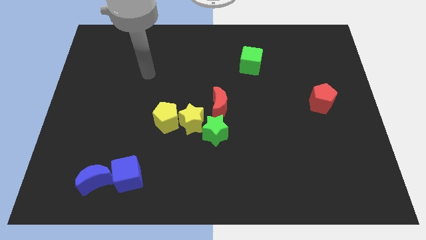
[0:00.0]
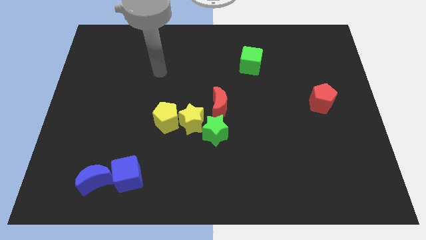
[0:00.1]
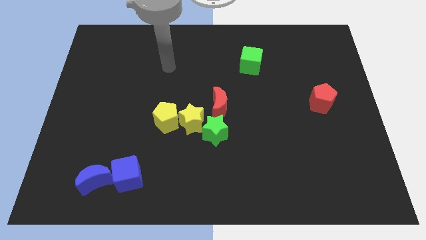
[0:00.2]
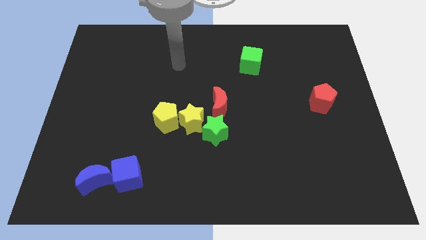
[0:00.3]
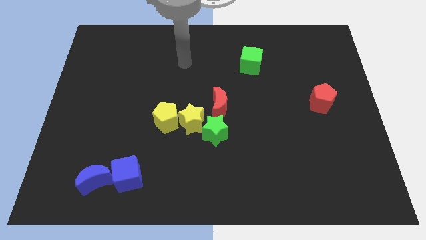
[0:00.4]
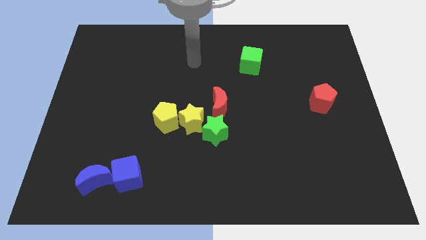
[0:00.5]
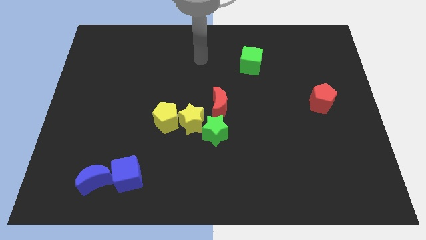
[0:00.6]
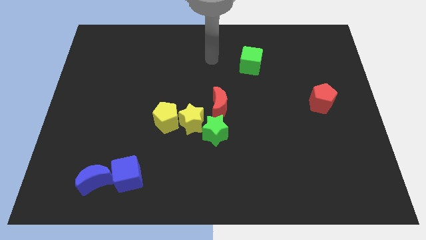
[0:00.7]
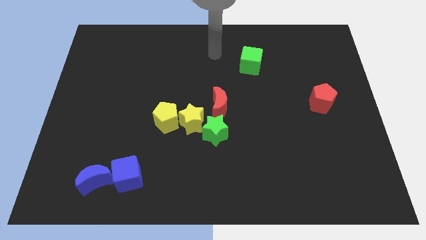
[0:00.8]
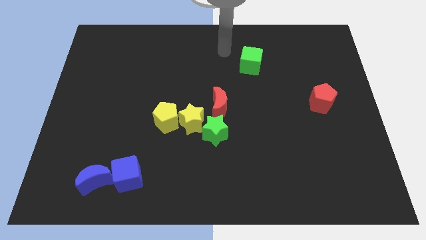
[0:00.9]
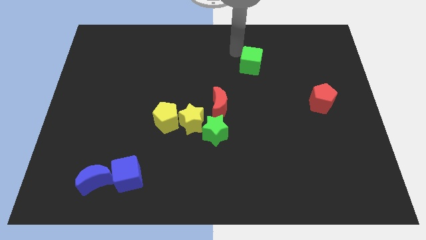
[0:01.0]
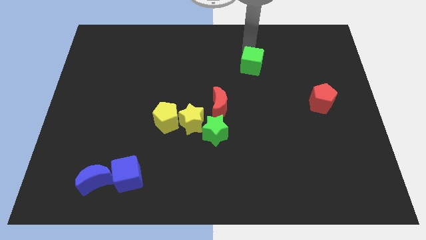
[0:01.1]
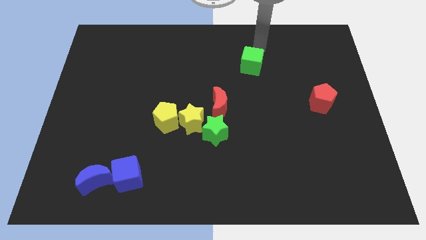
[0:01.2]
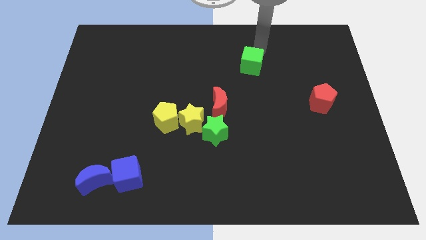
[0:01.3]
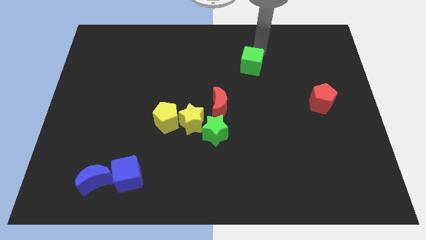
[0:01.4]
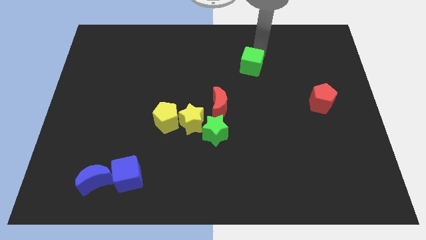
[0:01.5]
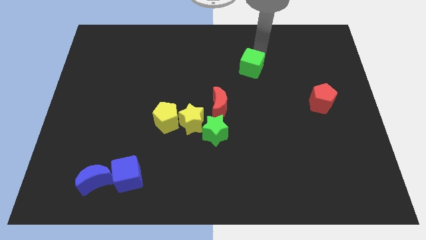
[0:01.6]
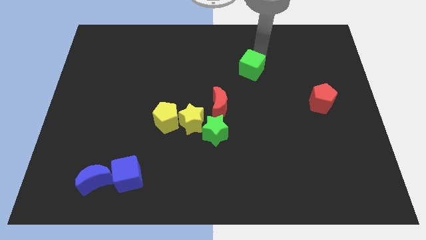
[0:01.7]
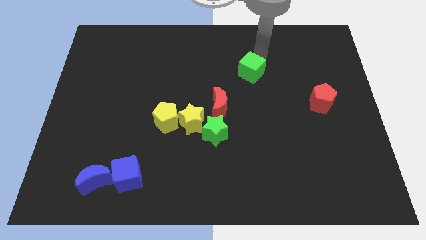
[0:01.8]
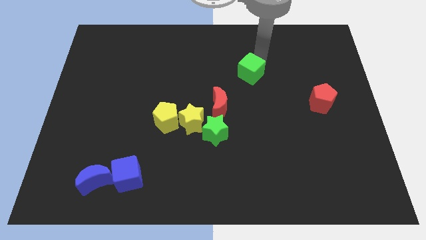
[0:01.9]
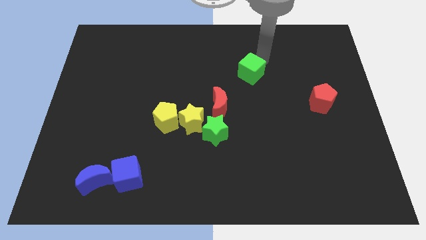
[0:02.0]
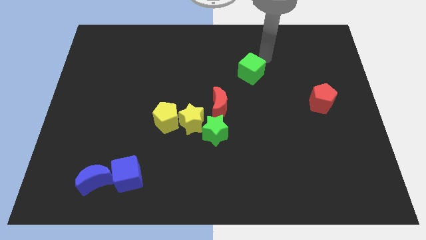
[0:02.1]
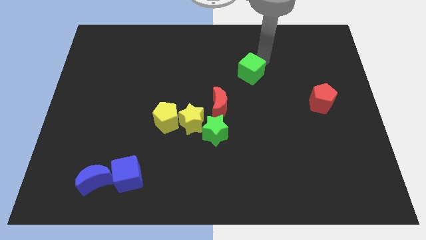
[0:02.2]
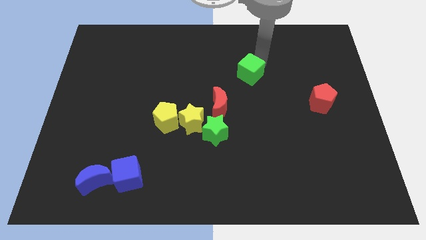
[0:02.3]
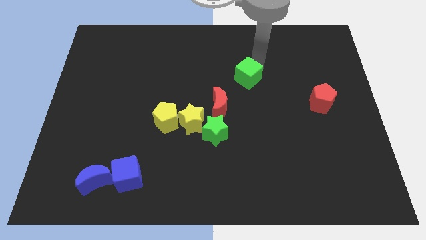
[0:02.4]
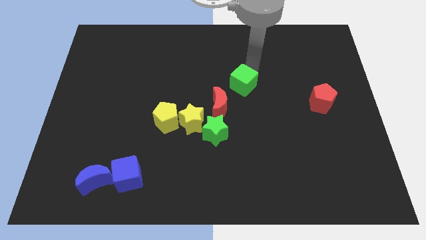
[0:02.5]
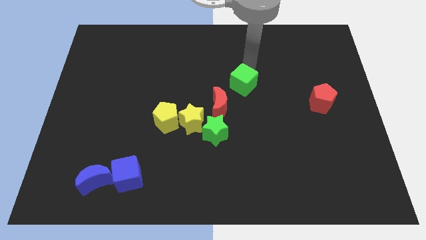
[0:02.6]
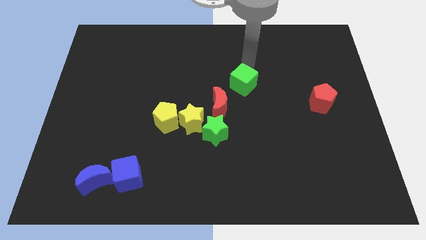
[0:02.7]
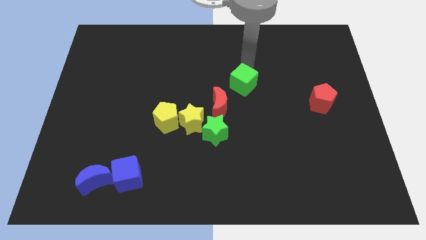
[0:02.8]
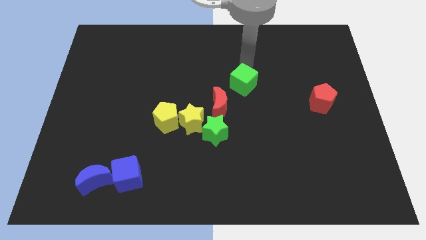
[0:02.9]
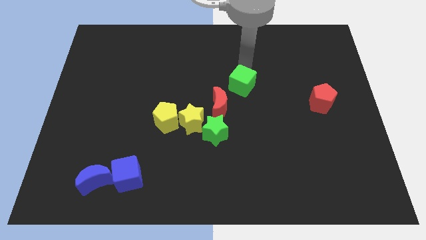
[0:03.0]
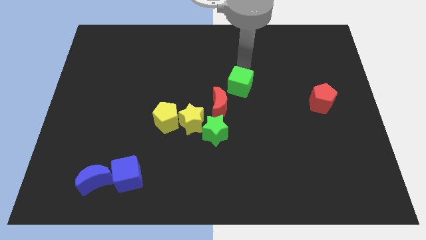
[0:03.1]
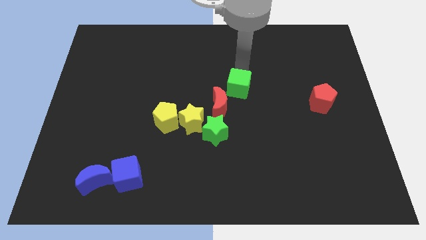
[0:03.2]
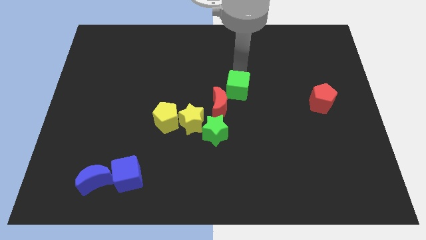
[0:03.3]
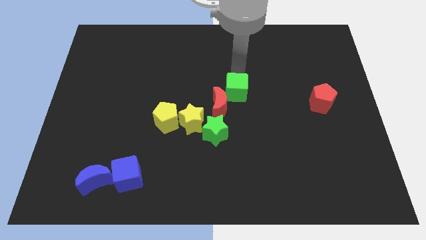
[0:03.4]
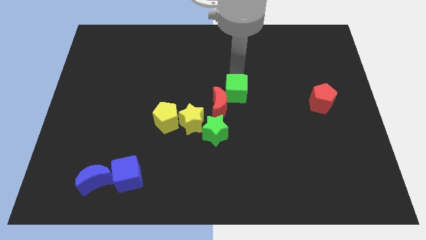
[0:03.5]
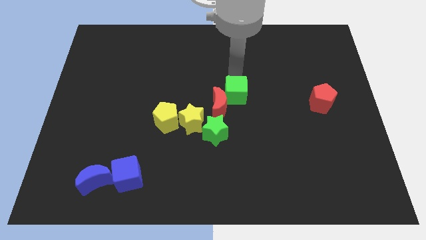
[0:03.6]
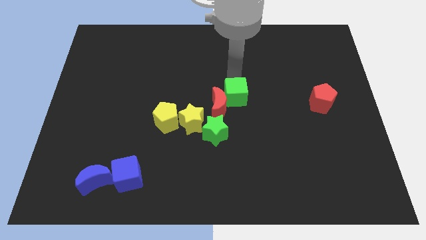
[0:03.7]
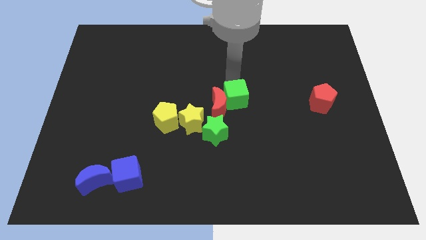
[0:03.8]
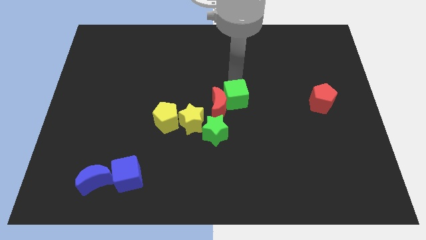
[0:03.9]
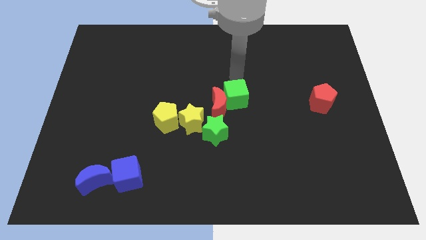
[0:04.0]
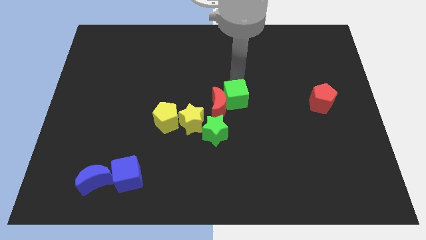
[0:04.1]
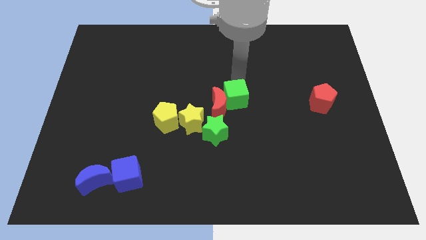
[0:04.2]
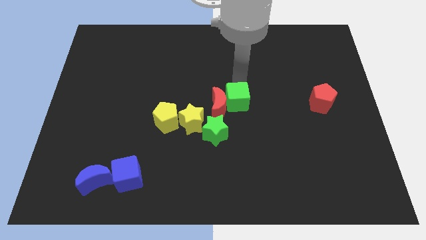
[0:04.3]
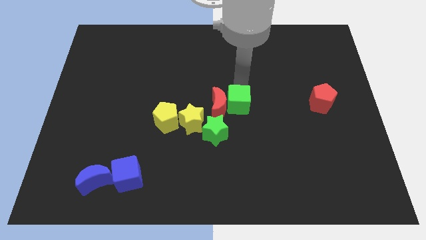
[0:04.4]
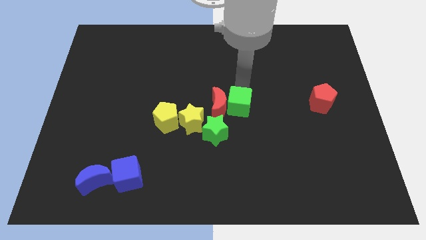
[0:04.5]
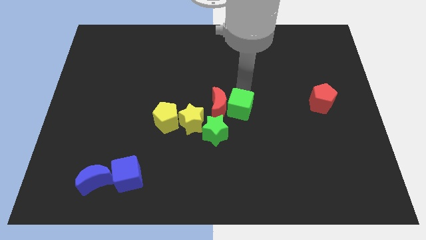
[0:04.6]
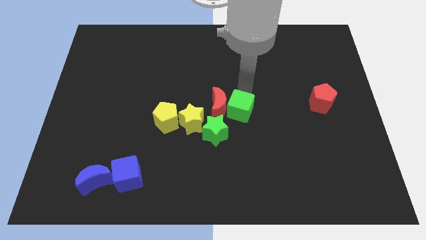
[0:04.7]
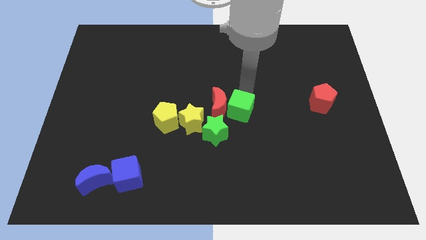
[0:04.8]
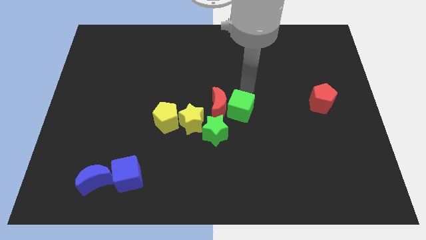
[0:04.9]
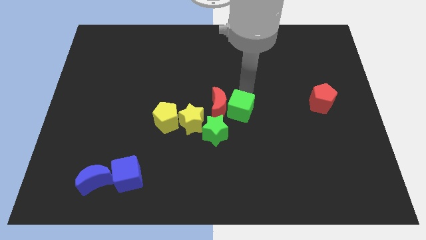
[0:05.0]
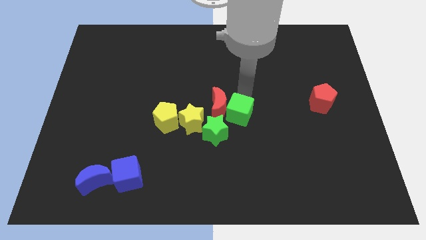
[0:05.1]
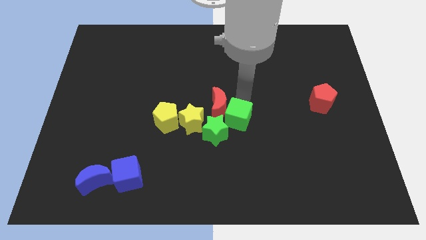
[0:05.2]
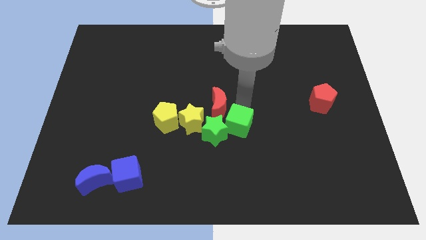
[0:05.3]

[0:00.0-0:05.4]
slide the green cube to the green star

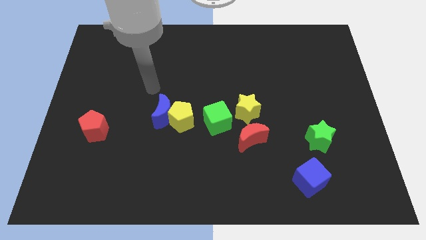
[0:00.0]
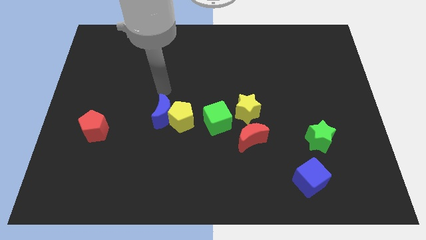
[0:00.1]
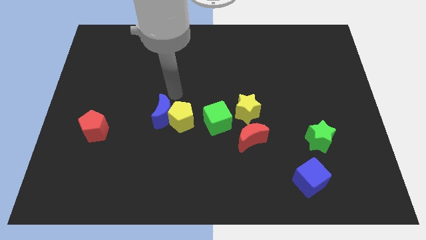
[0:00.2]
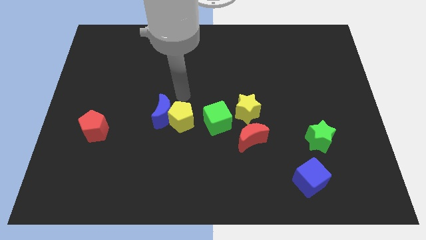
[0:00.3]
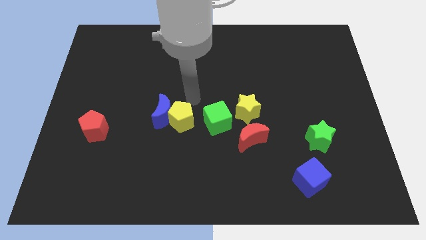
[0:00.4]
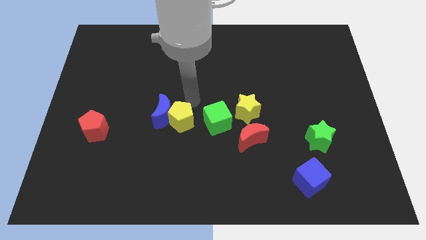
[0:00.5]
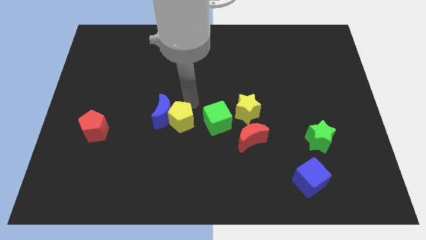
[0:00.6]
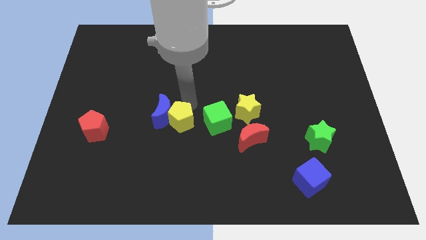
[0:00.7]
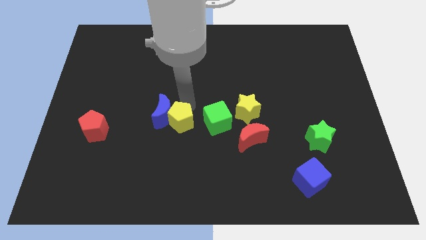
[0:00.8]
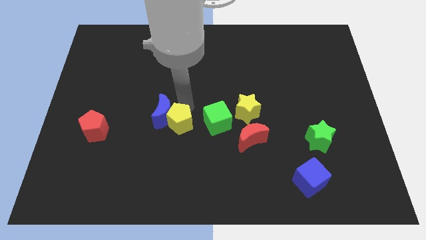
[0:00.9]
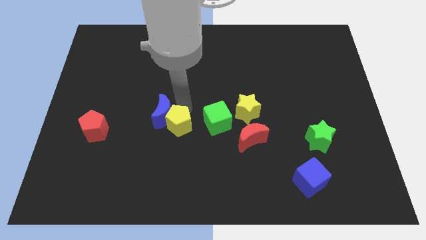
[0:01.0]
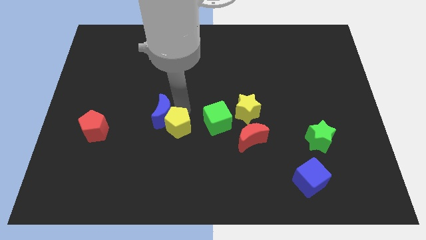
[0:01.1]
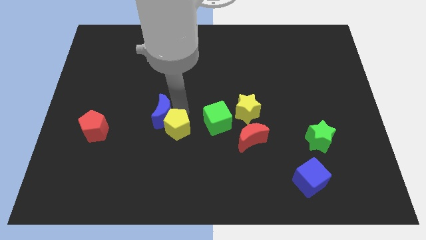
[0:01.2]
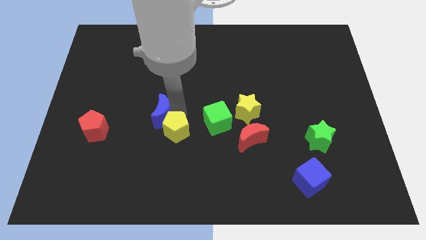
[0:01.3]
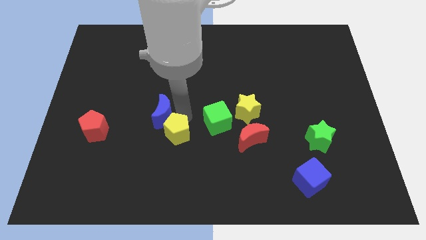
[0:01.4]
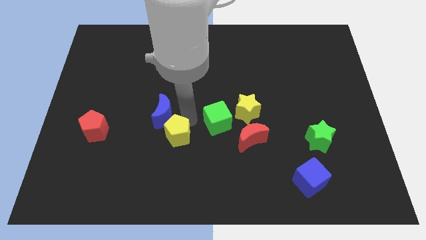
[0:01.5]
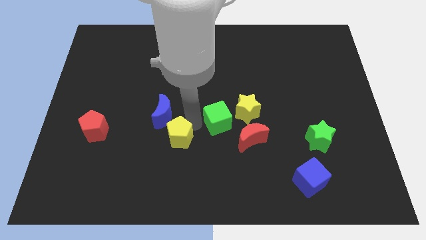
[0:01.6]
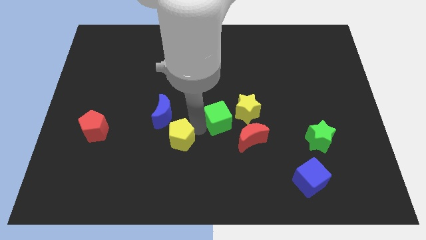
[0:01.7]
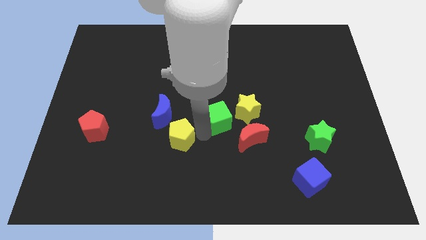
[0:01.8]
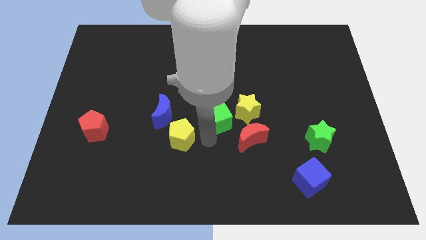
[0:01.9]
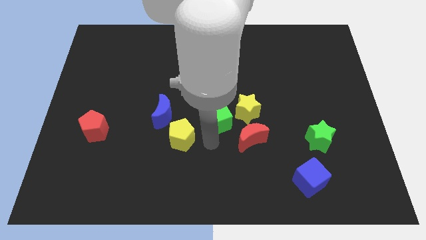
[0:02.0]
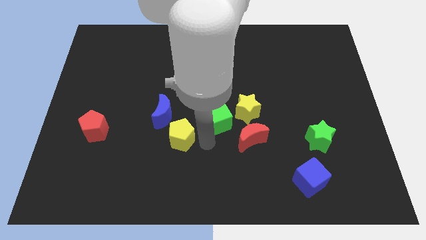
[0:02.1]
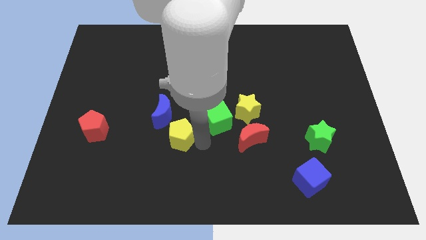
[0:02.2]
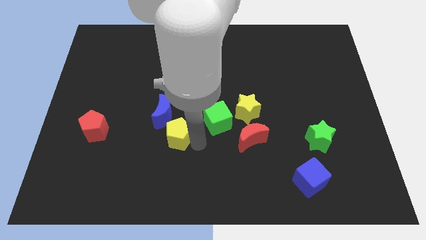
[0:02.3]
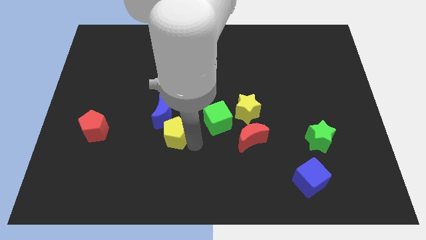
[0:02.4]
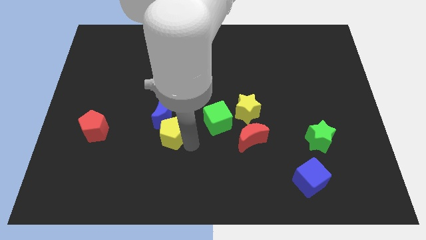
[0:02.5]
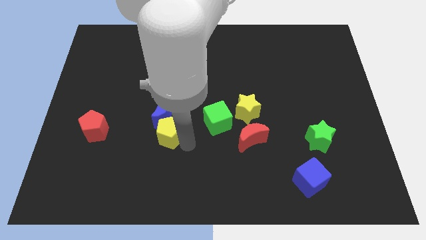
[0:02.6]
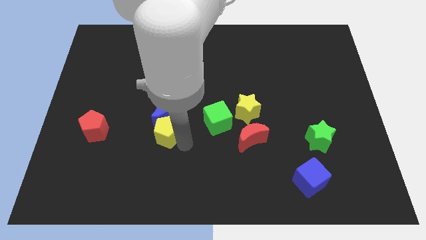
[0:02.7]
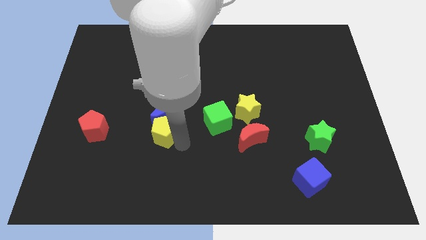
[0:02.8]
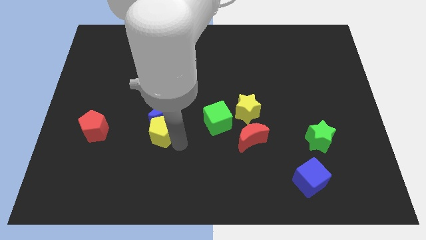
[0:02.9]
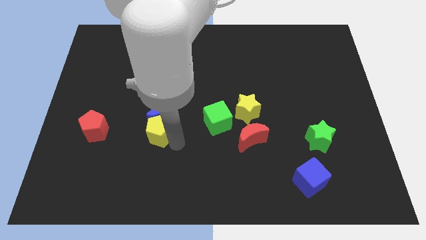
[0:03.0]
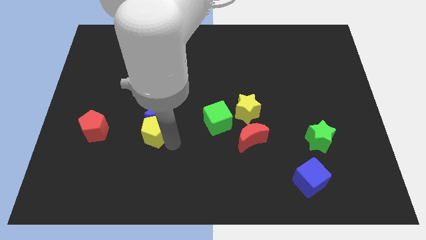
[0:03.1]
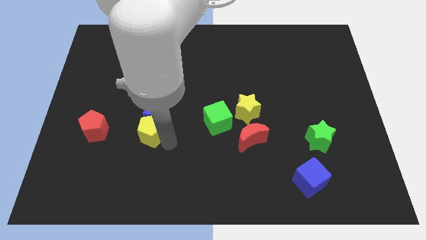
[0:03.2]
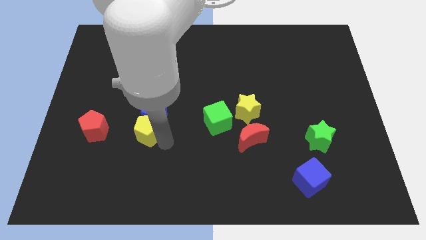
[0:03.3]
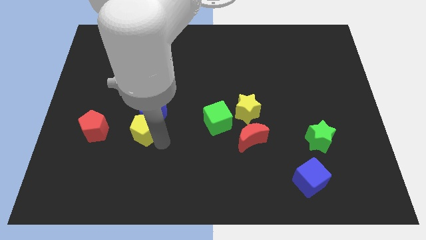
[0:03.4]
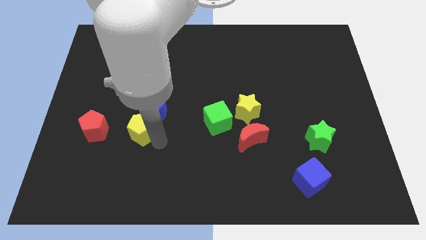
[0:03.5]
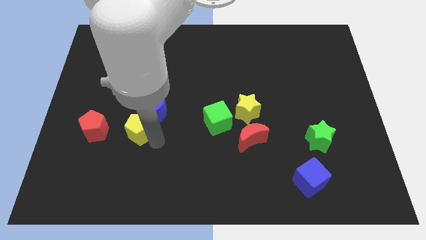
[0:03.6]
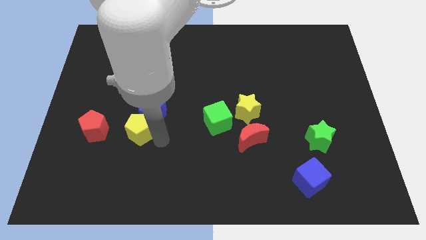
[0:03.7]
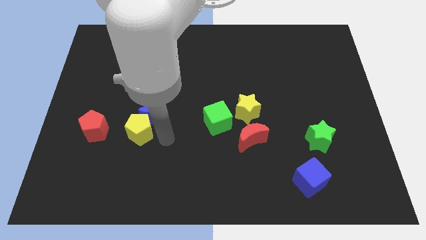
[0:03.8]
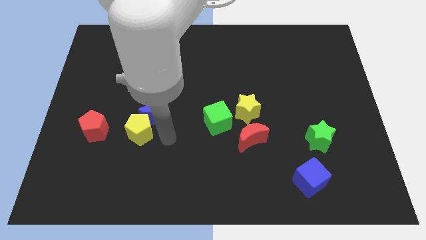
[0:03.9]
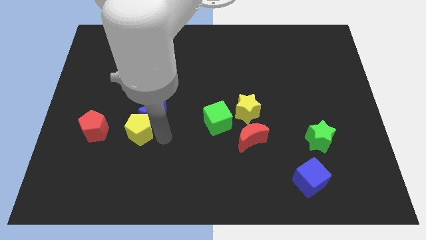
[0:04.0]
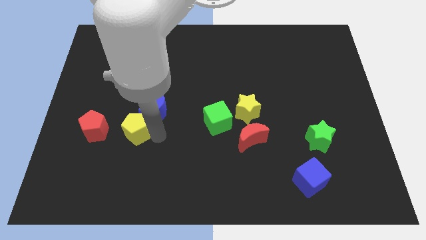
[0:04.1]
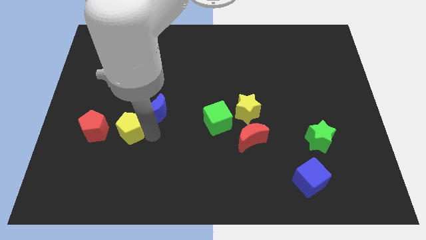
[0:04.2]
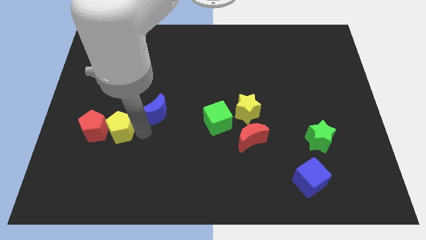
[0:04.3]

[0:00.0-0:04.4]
push the yellow pentagon towards the red pentagon
